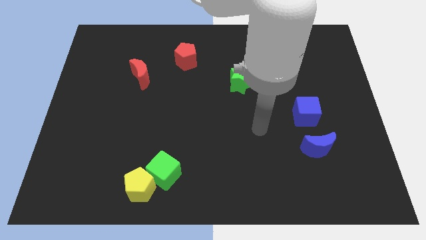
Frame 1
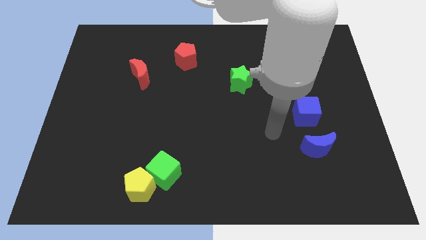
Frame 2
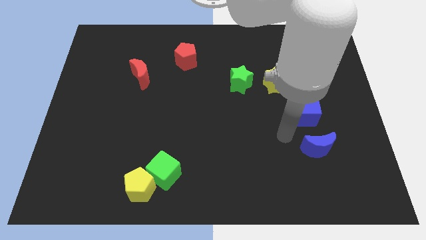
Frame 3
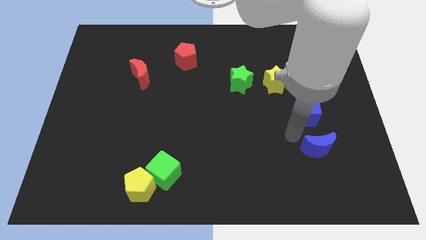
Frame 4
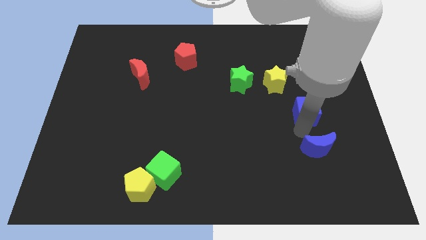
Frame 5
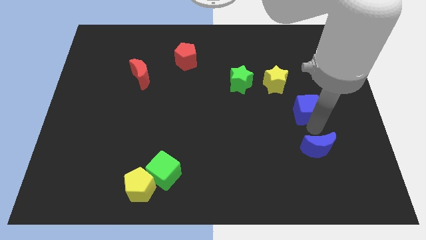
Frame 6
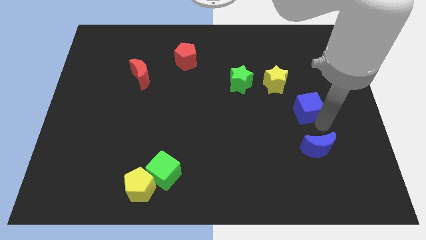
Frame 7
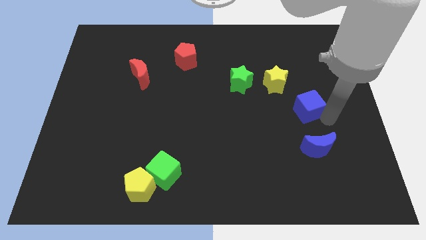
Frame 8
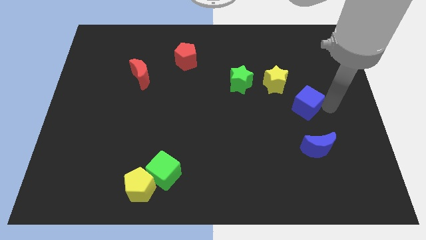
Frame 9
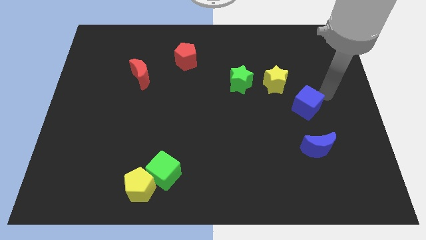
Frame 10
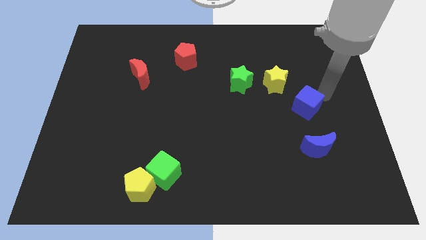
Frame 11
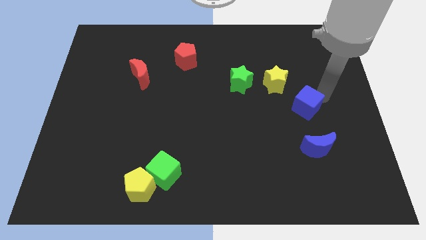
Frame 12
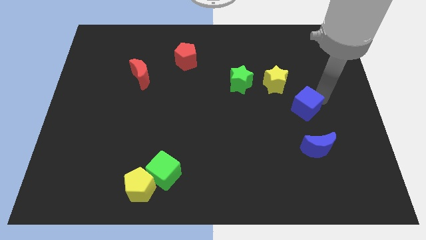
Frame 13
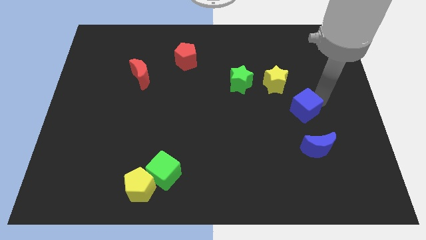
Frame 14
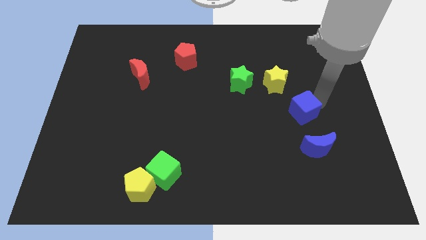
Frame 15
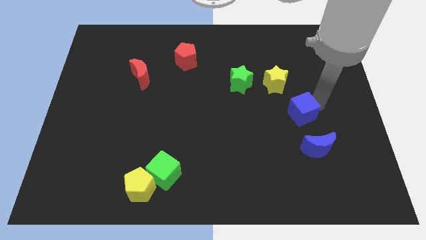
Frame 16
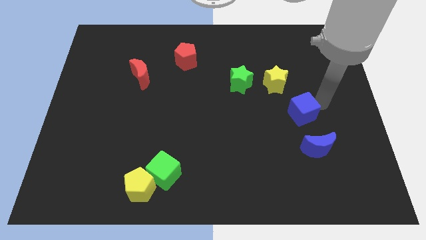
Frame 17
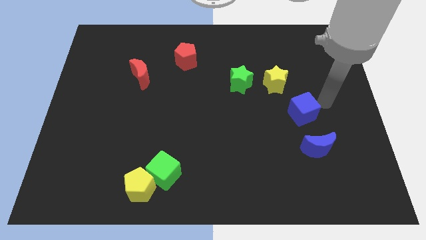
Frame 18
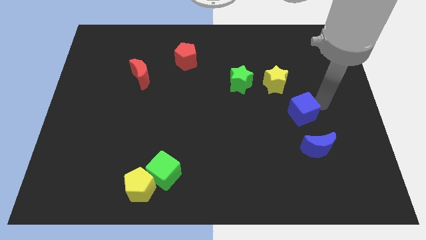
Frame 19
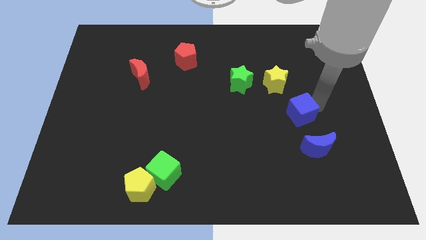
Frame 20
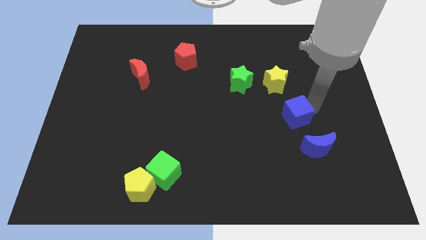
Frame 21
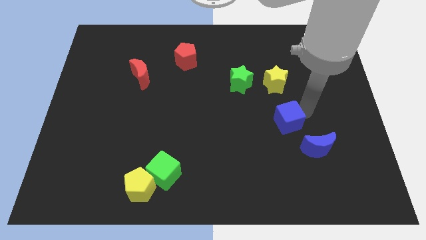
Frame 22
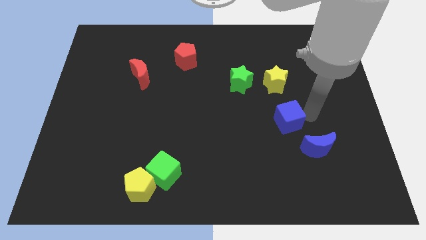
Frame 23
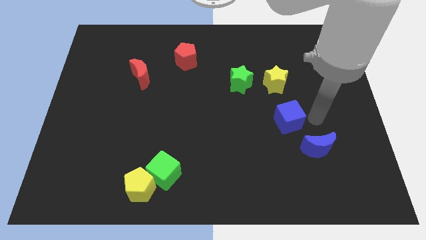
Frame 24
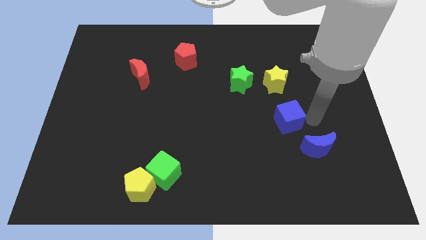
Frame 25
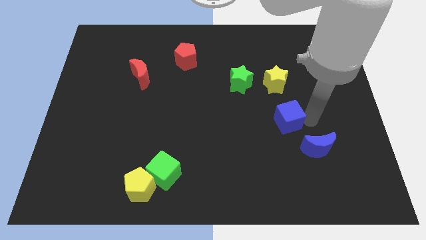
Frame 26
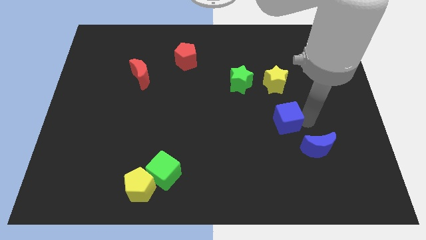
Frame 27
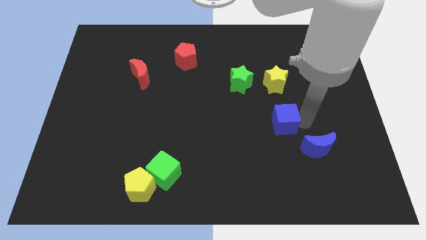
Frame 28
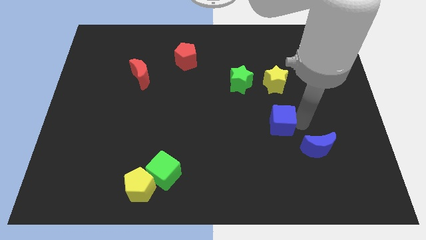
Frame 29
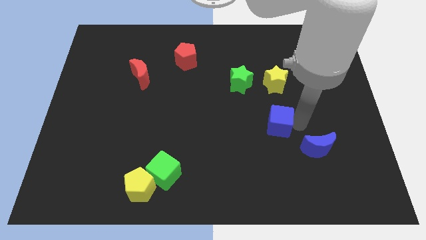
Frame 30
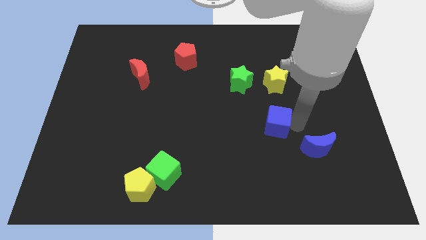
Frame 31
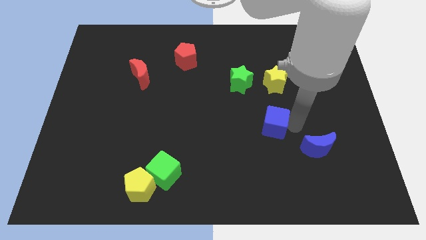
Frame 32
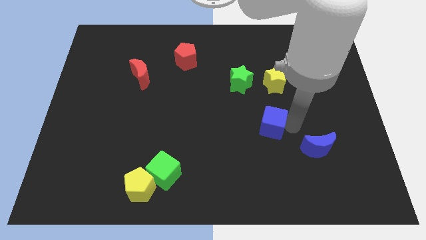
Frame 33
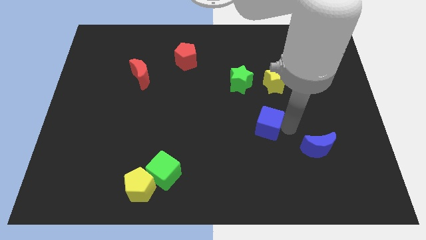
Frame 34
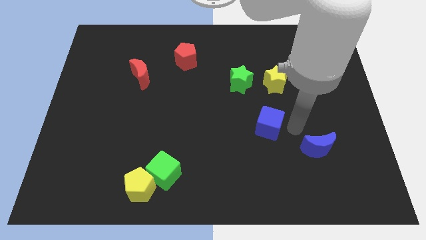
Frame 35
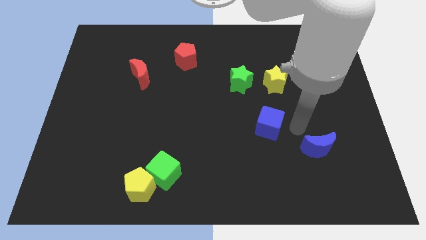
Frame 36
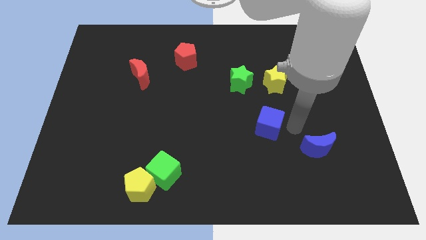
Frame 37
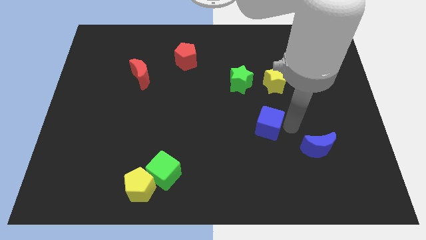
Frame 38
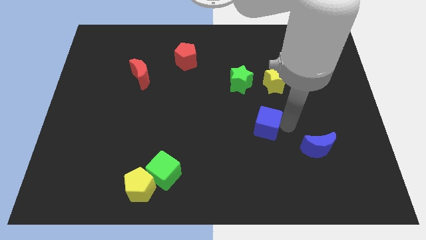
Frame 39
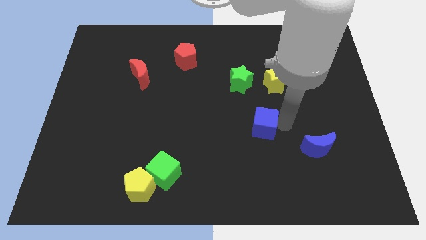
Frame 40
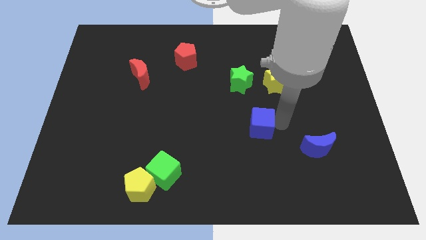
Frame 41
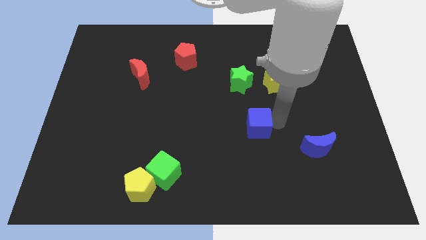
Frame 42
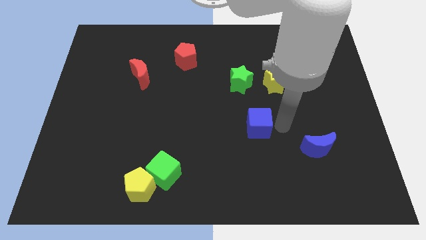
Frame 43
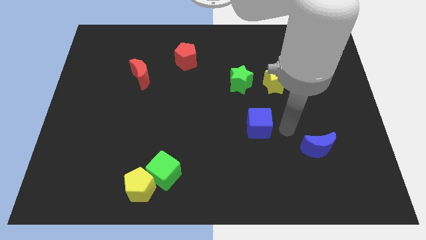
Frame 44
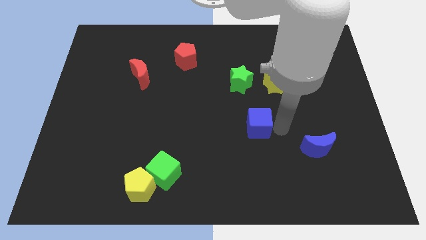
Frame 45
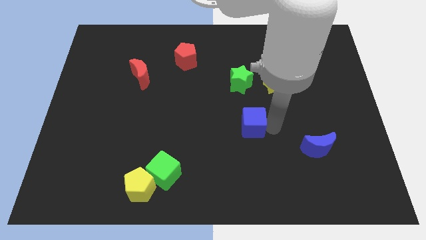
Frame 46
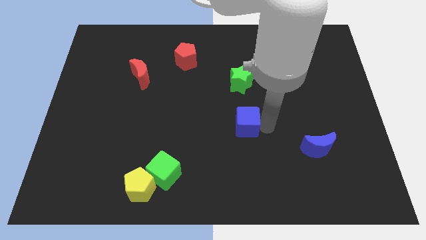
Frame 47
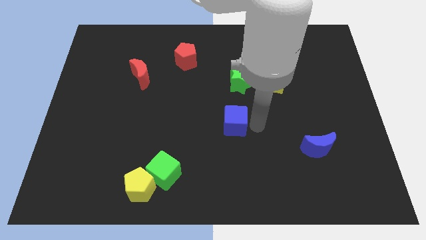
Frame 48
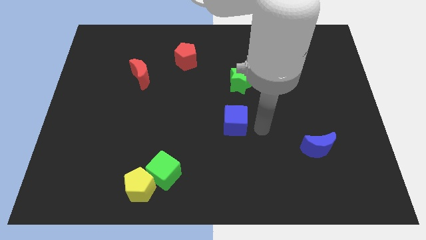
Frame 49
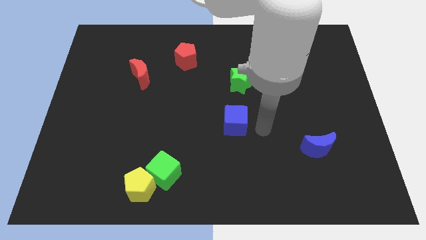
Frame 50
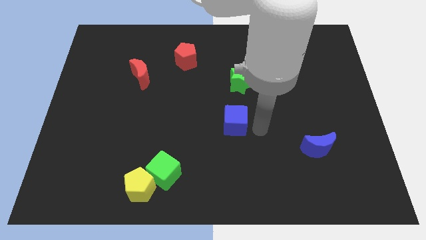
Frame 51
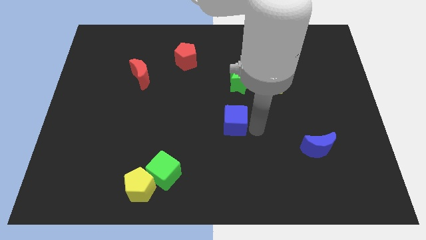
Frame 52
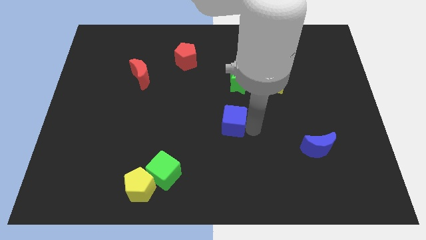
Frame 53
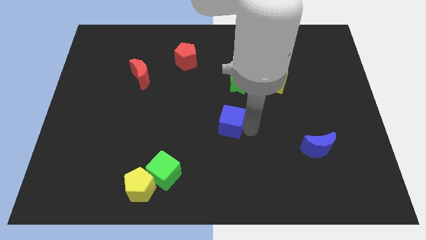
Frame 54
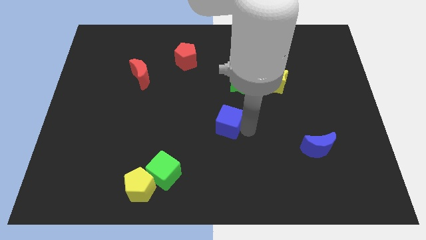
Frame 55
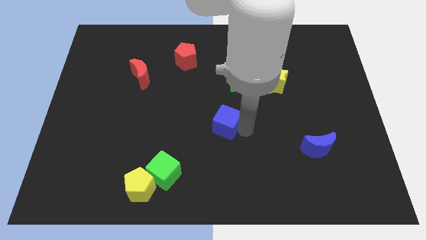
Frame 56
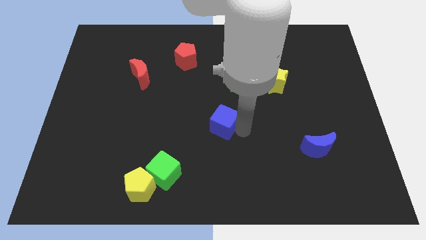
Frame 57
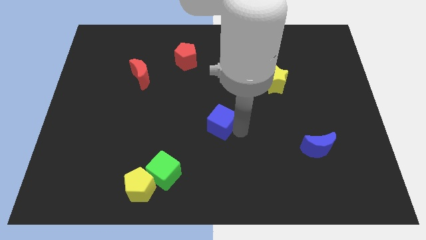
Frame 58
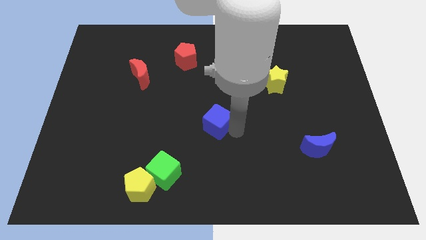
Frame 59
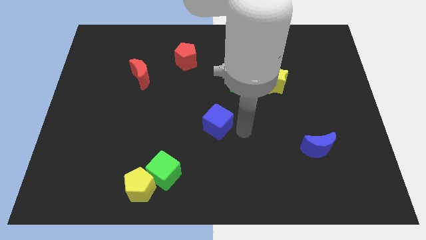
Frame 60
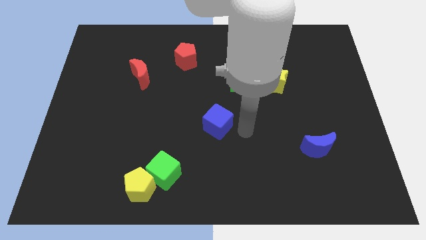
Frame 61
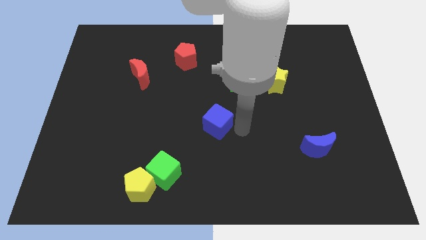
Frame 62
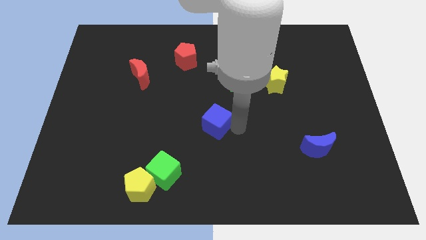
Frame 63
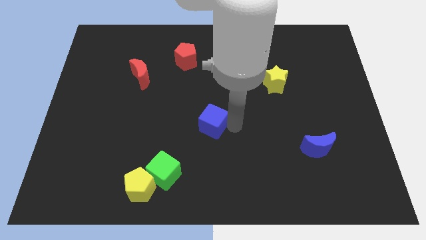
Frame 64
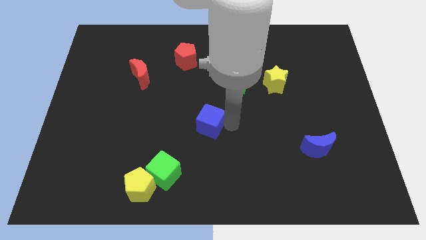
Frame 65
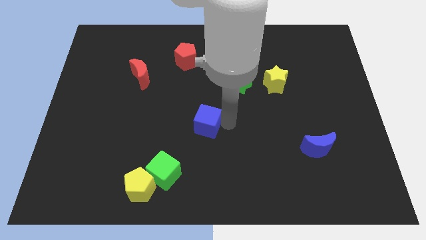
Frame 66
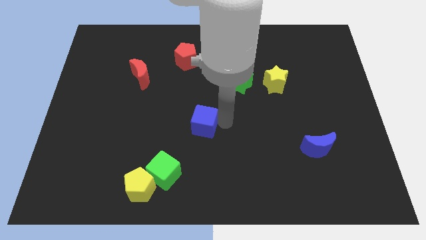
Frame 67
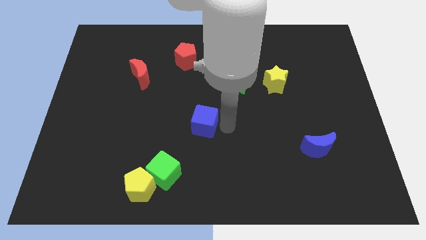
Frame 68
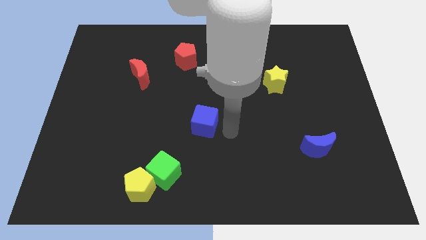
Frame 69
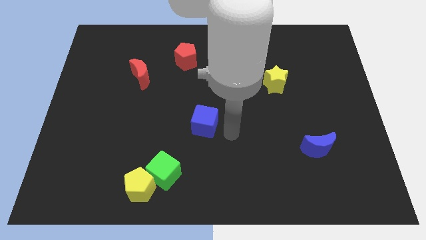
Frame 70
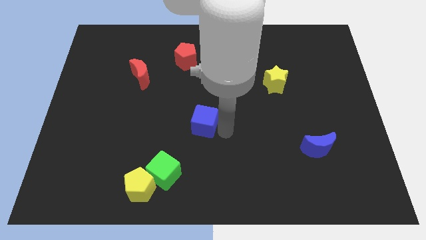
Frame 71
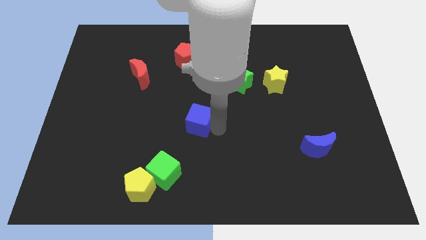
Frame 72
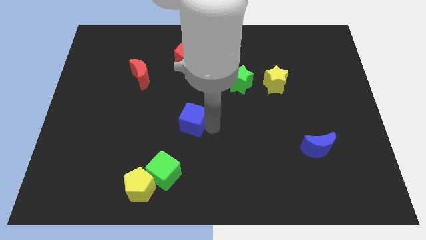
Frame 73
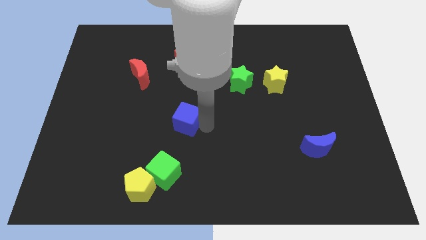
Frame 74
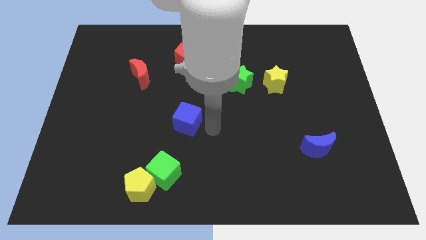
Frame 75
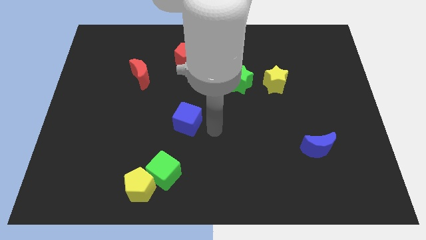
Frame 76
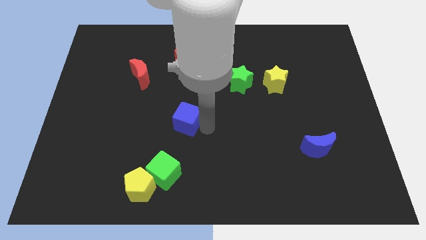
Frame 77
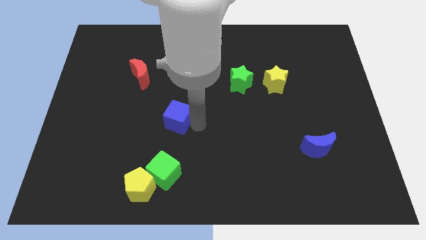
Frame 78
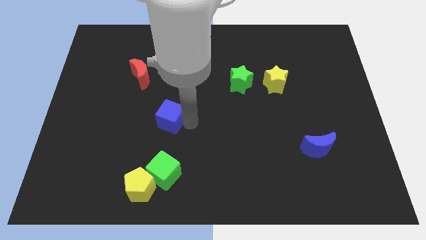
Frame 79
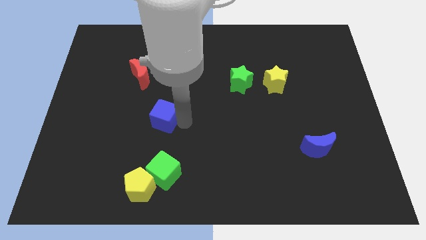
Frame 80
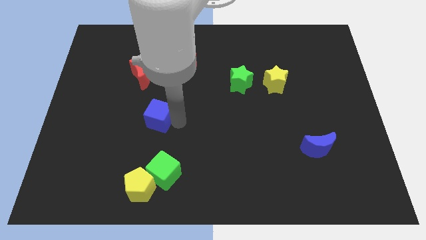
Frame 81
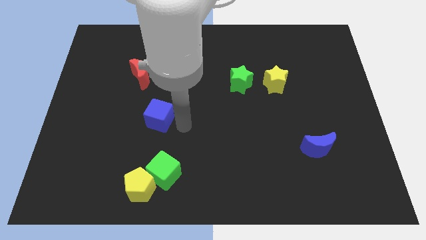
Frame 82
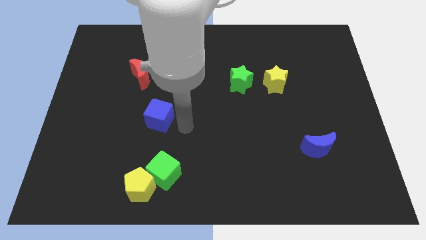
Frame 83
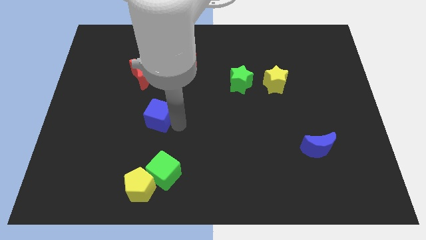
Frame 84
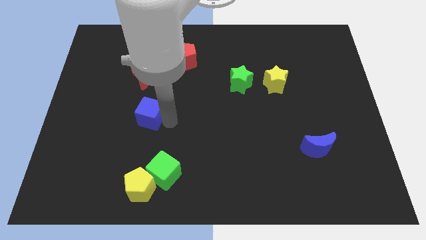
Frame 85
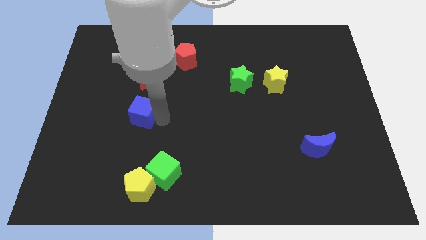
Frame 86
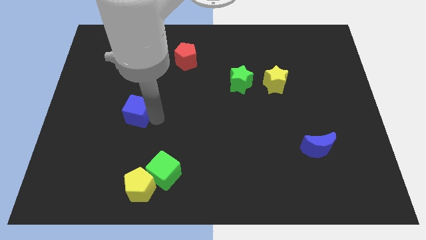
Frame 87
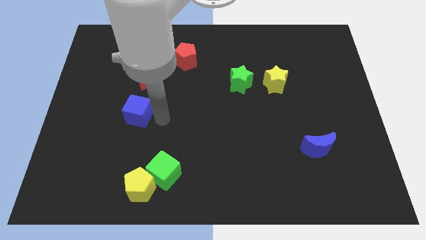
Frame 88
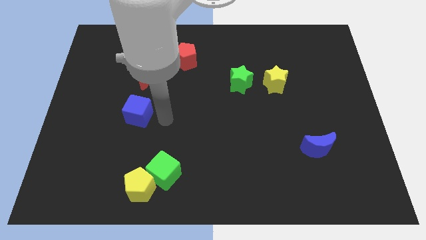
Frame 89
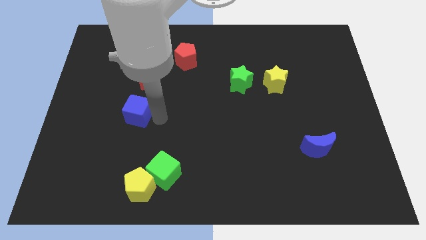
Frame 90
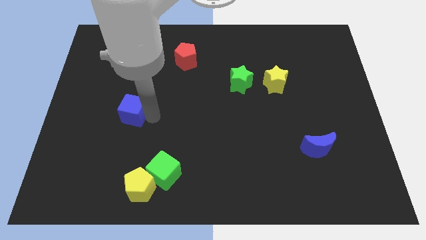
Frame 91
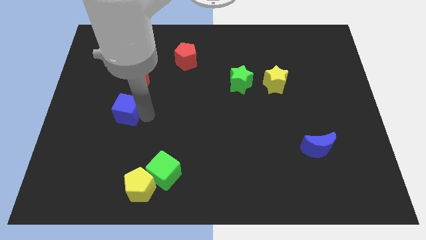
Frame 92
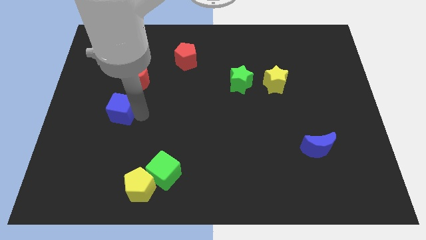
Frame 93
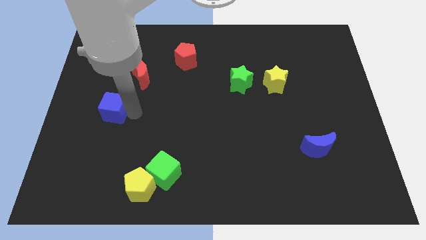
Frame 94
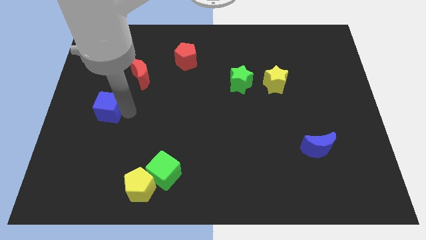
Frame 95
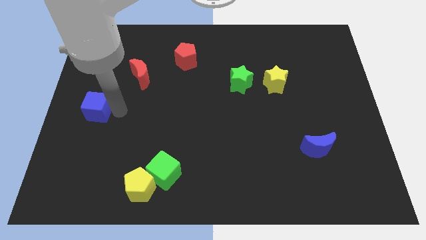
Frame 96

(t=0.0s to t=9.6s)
push the blue cube to the center left
